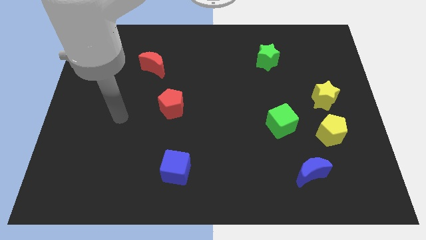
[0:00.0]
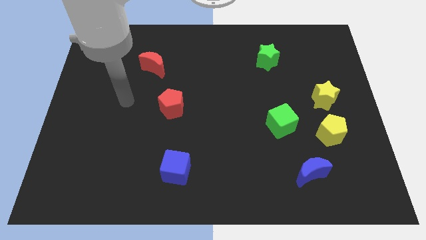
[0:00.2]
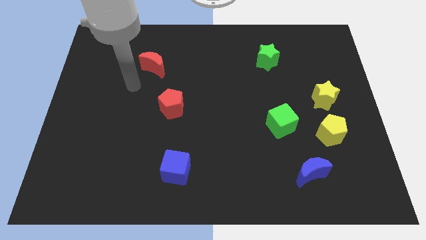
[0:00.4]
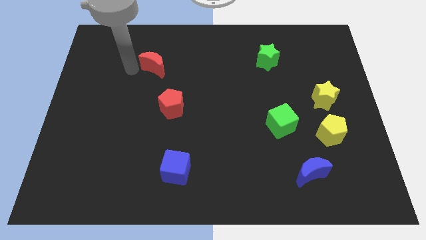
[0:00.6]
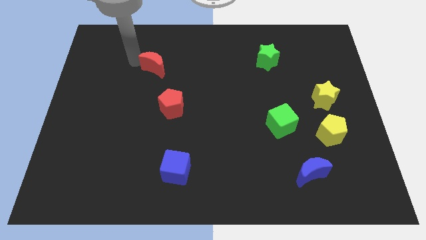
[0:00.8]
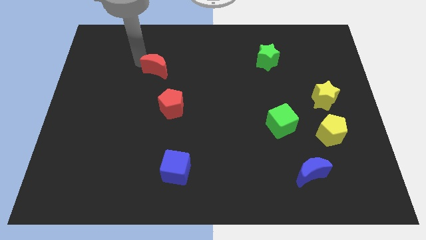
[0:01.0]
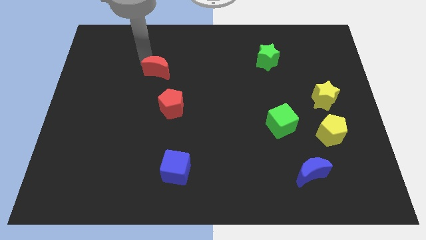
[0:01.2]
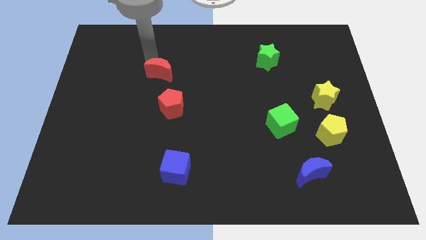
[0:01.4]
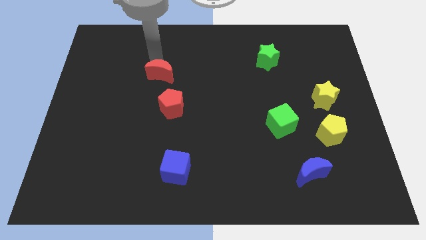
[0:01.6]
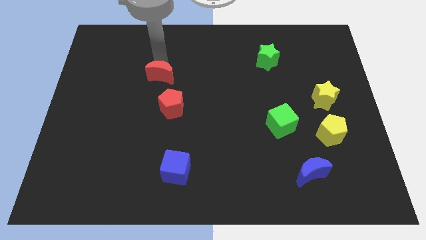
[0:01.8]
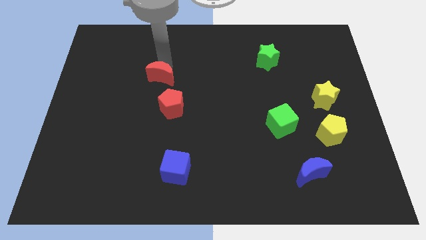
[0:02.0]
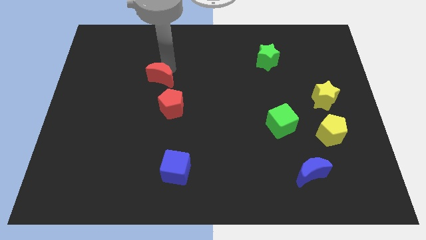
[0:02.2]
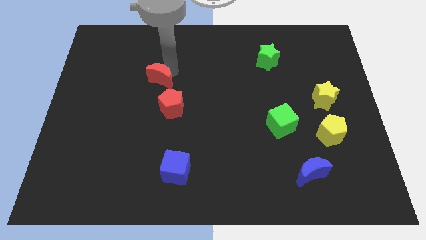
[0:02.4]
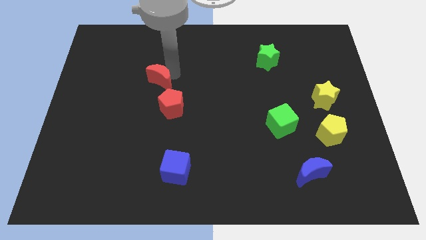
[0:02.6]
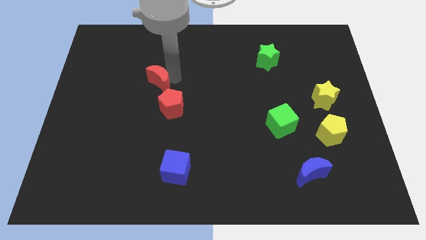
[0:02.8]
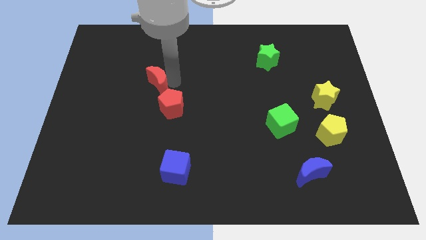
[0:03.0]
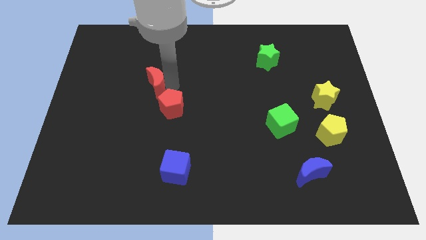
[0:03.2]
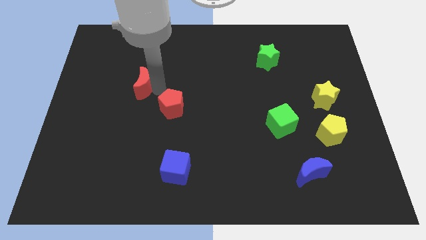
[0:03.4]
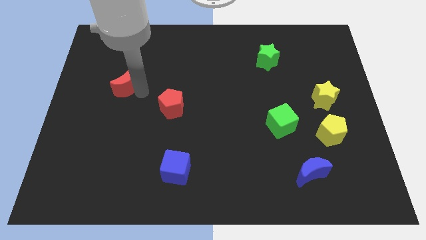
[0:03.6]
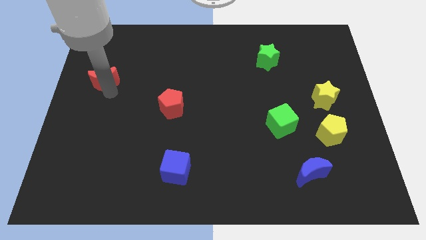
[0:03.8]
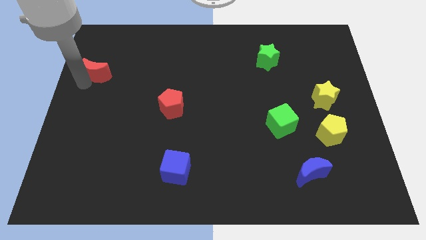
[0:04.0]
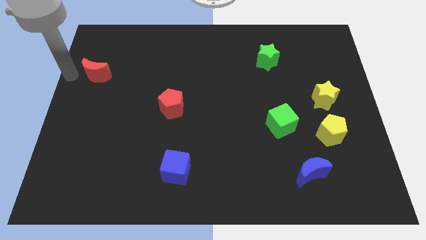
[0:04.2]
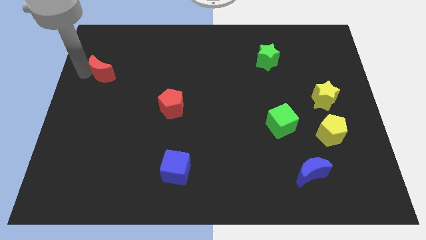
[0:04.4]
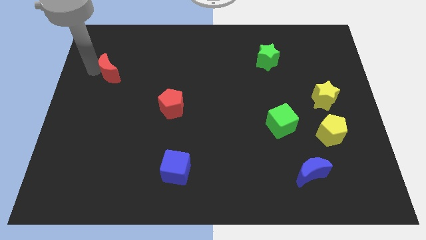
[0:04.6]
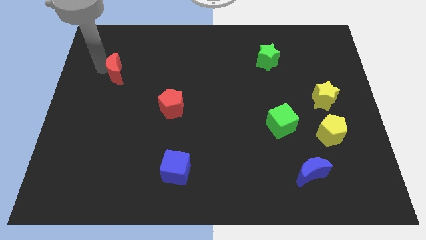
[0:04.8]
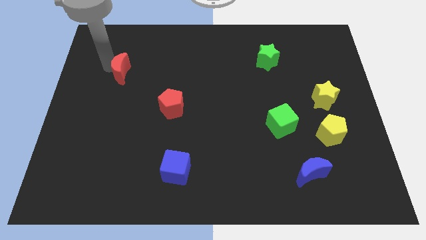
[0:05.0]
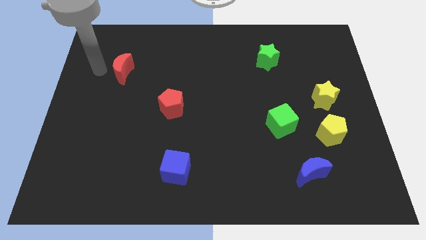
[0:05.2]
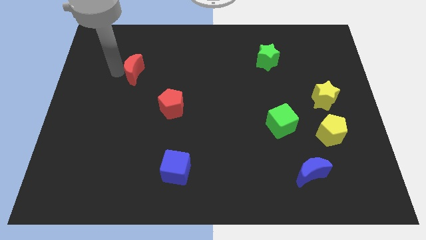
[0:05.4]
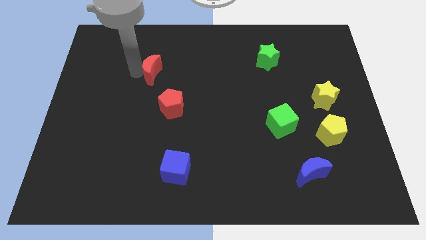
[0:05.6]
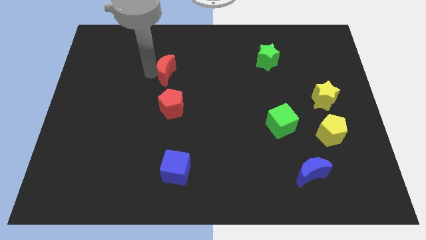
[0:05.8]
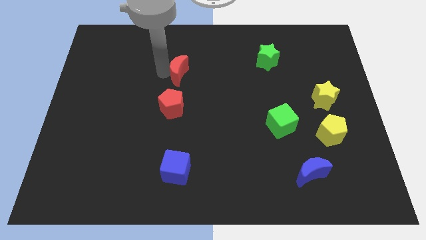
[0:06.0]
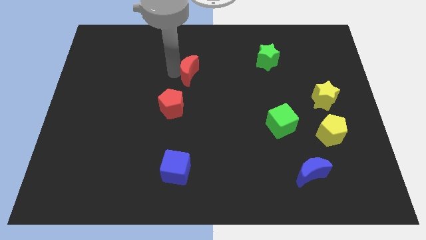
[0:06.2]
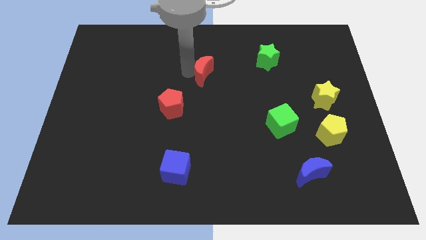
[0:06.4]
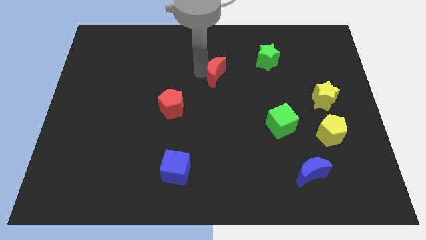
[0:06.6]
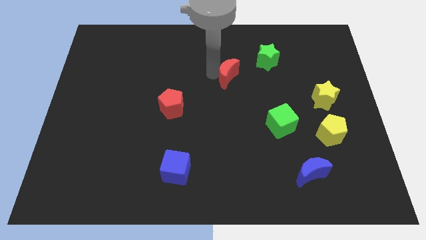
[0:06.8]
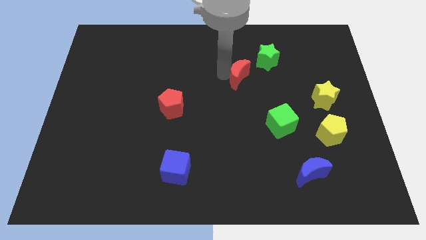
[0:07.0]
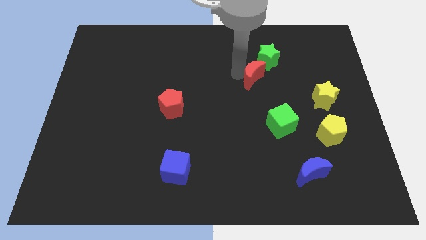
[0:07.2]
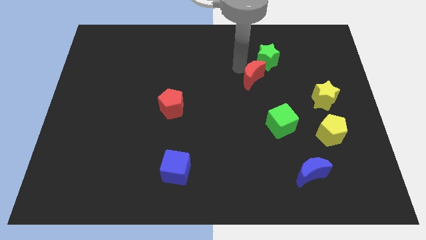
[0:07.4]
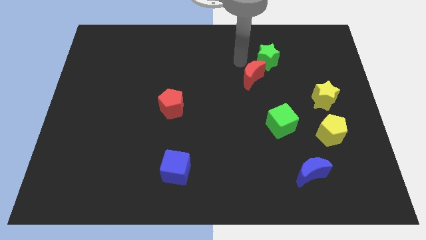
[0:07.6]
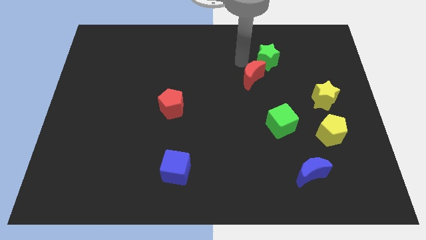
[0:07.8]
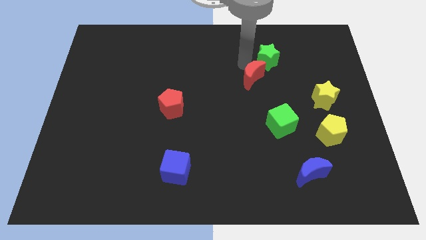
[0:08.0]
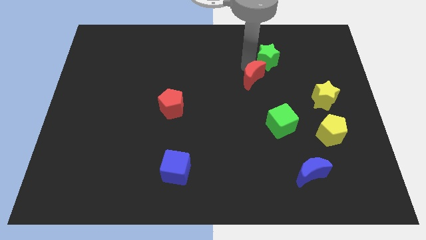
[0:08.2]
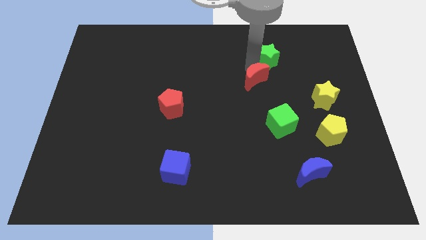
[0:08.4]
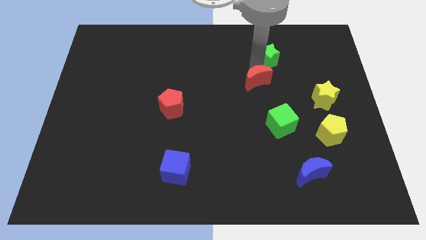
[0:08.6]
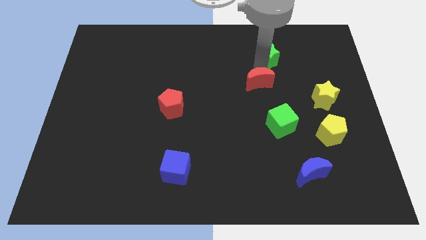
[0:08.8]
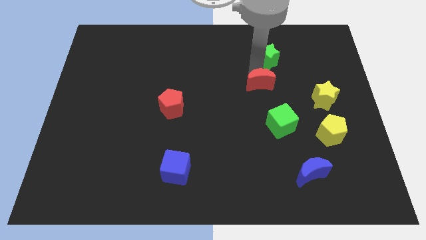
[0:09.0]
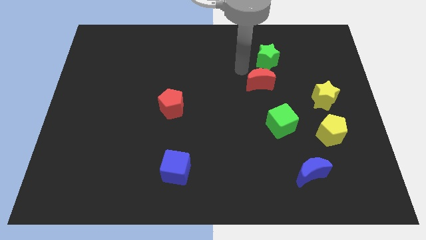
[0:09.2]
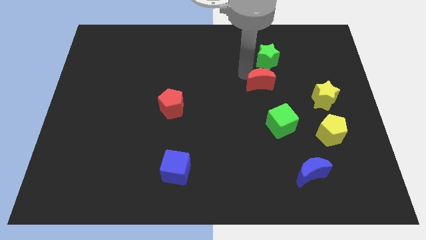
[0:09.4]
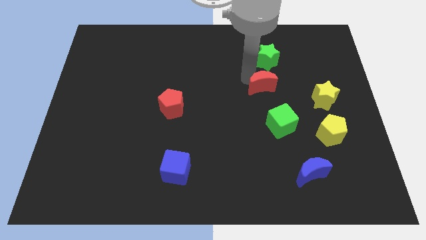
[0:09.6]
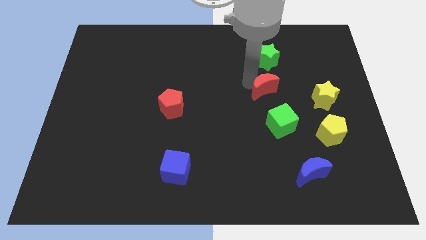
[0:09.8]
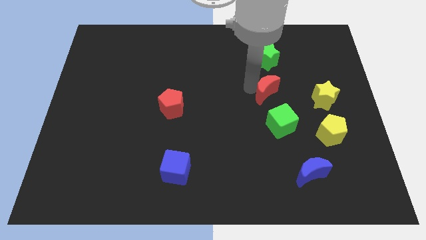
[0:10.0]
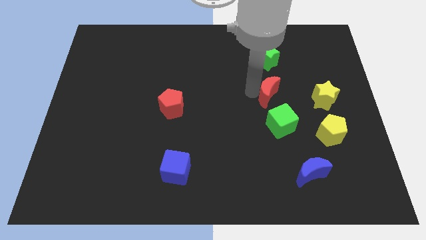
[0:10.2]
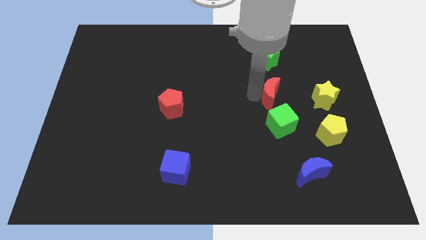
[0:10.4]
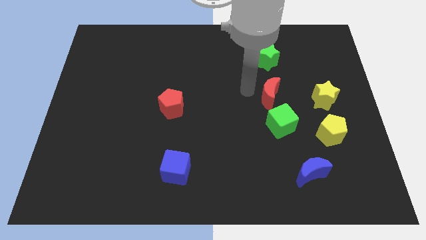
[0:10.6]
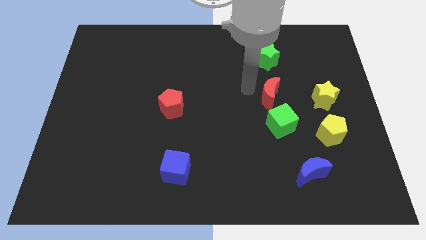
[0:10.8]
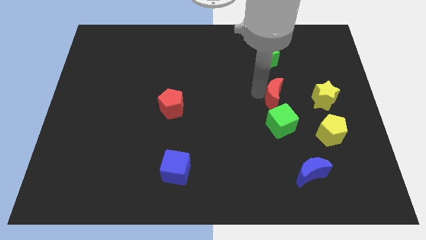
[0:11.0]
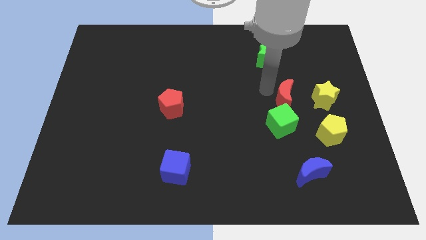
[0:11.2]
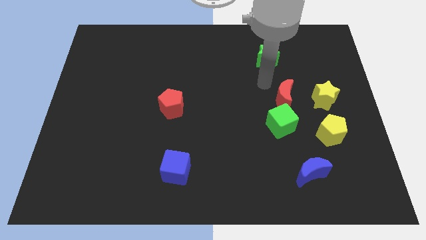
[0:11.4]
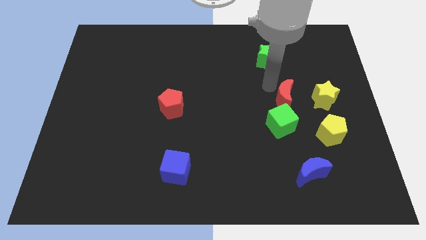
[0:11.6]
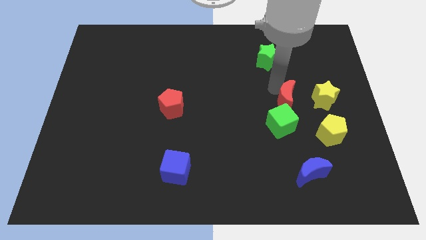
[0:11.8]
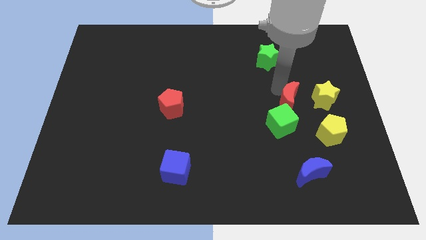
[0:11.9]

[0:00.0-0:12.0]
slide the red moon to the top left of the yellow pentagon
